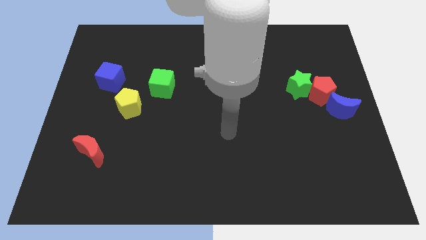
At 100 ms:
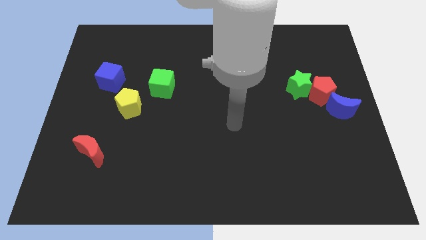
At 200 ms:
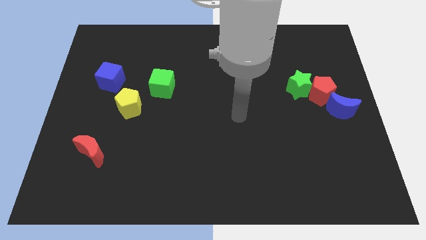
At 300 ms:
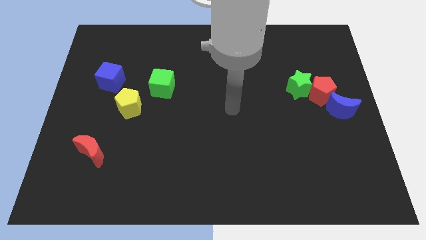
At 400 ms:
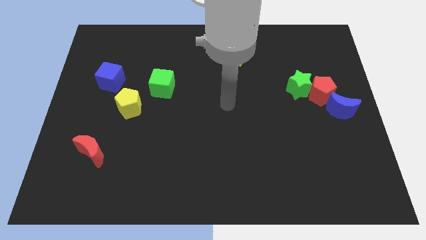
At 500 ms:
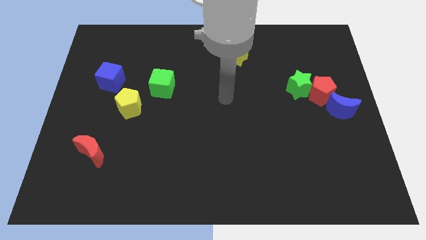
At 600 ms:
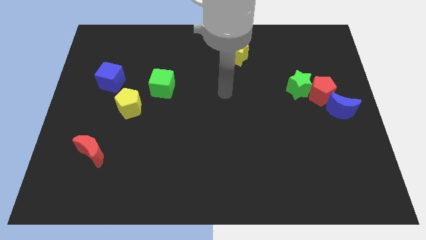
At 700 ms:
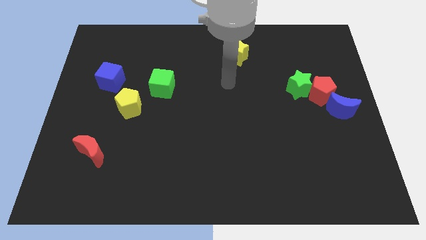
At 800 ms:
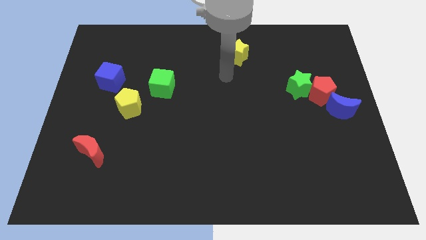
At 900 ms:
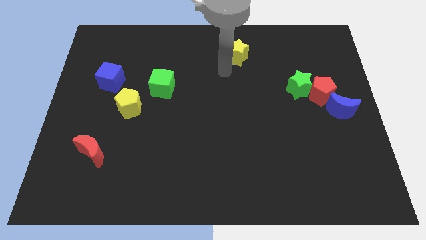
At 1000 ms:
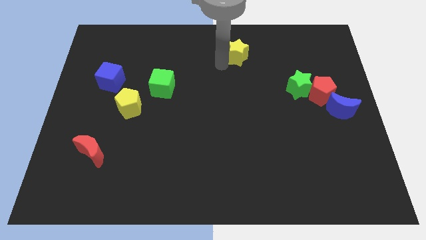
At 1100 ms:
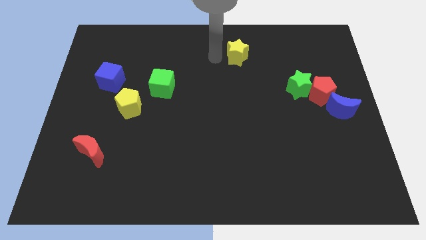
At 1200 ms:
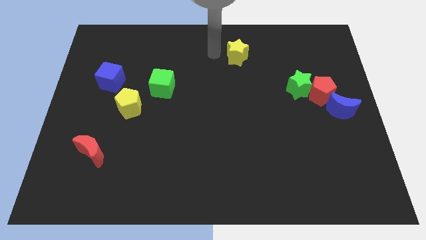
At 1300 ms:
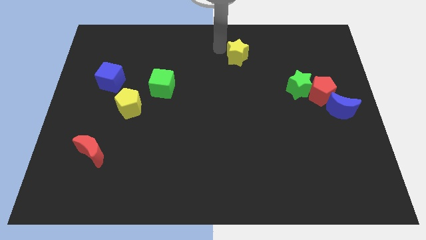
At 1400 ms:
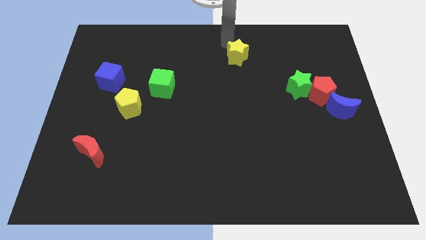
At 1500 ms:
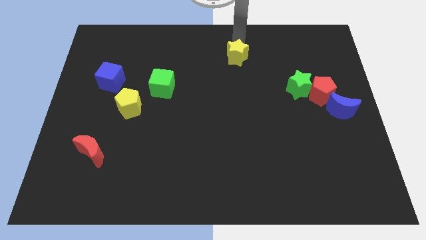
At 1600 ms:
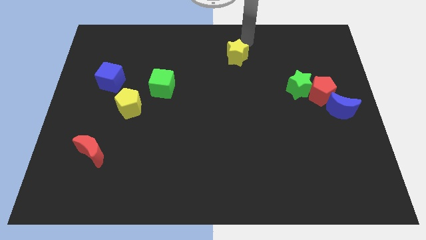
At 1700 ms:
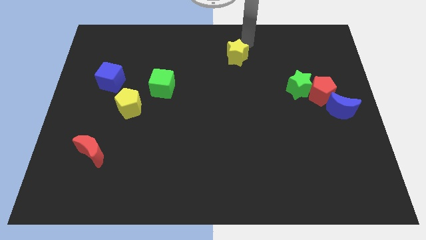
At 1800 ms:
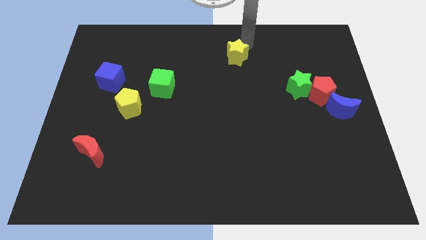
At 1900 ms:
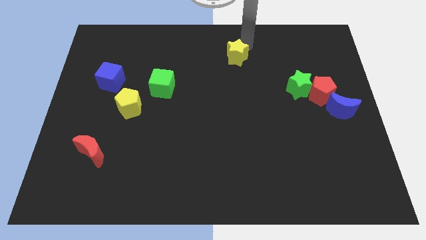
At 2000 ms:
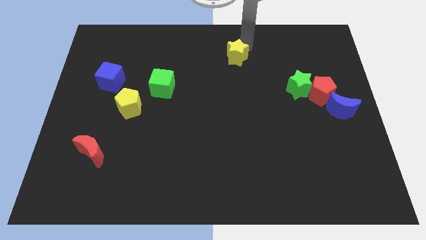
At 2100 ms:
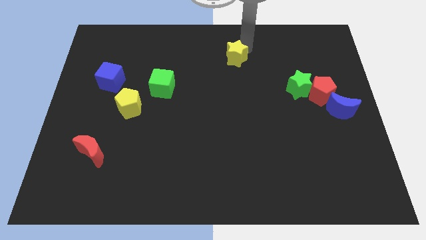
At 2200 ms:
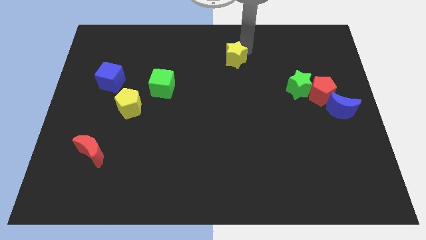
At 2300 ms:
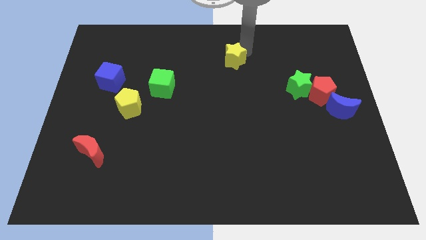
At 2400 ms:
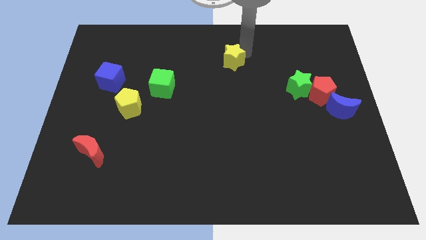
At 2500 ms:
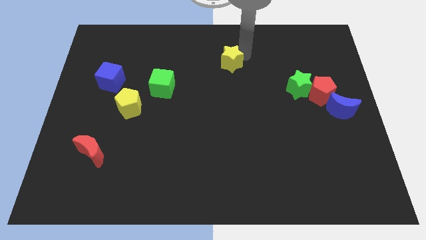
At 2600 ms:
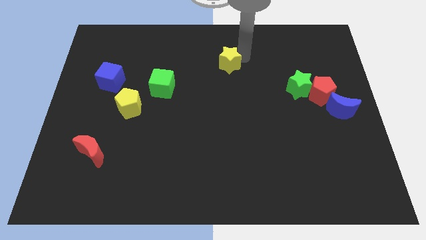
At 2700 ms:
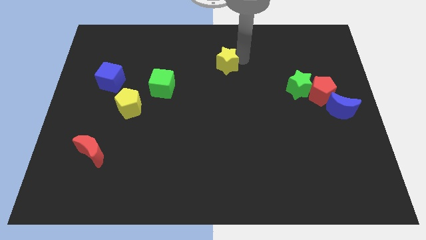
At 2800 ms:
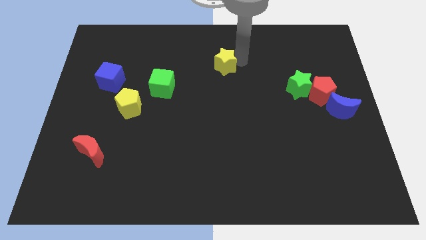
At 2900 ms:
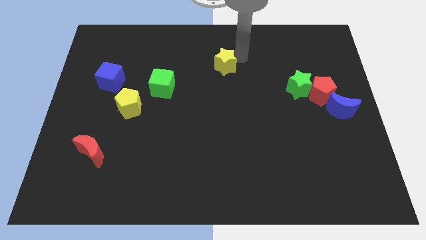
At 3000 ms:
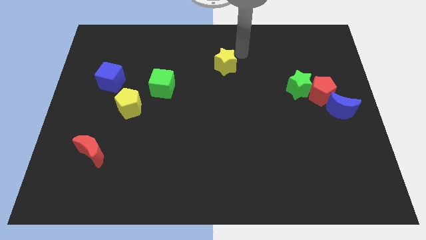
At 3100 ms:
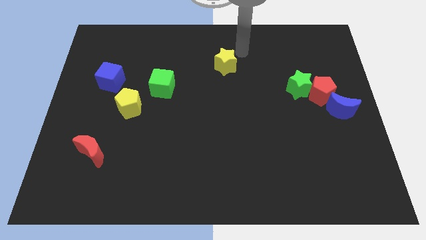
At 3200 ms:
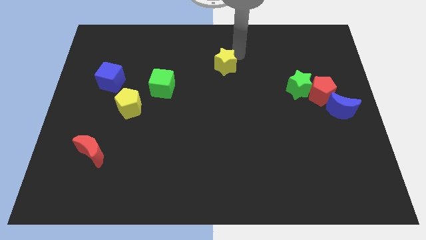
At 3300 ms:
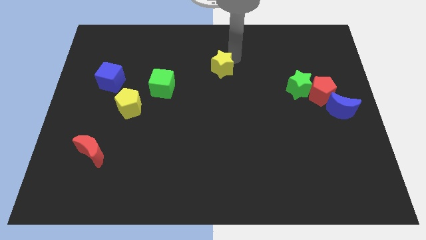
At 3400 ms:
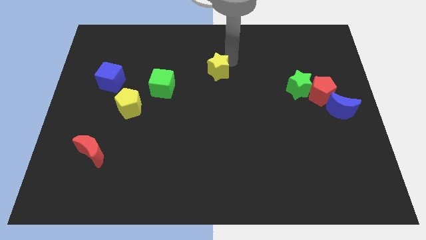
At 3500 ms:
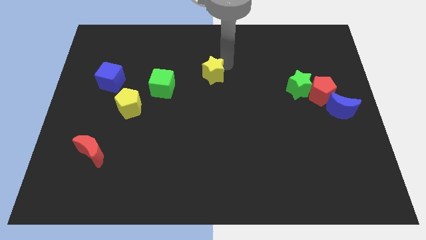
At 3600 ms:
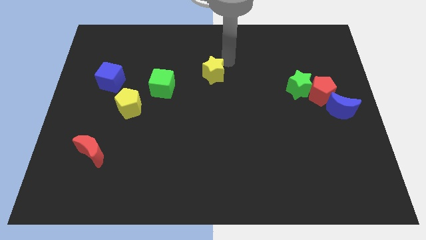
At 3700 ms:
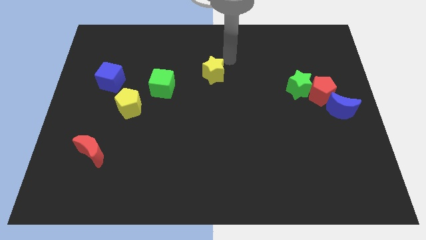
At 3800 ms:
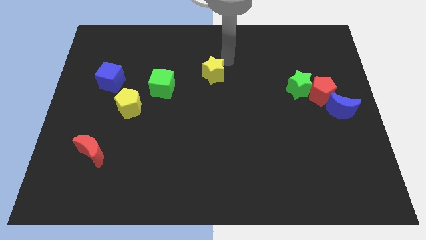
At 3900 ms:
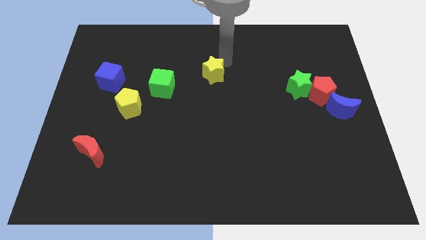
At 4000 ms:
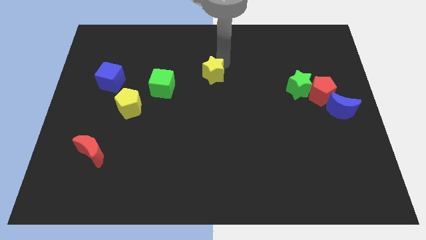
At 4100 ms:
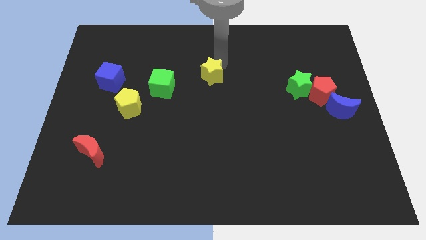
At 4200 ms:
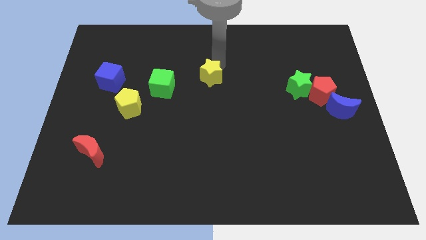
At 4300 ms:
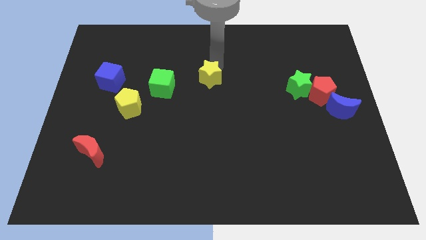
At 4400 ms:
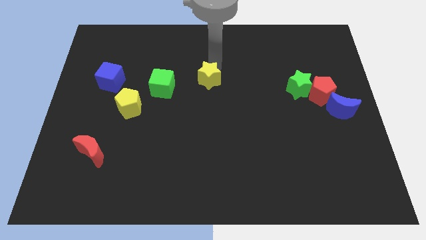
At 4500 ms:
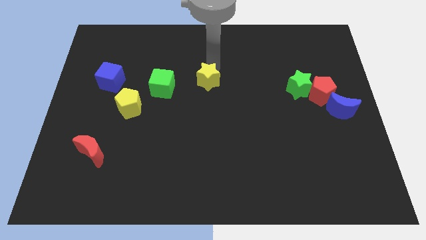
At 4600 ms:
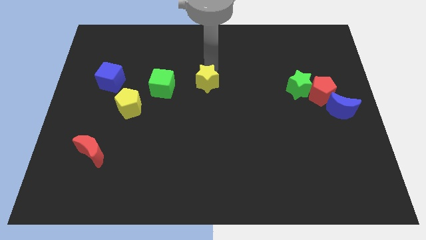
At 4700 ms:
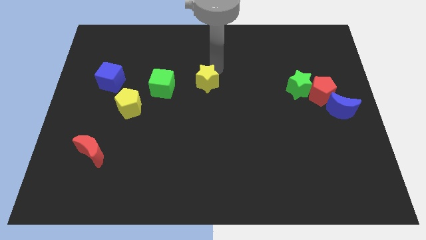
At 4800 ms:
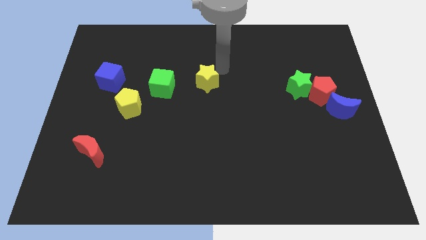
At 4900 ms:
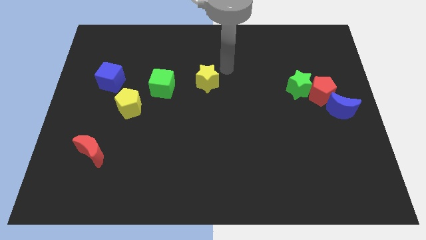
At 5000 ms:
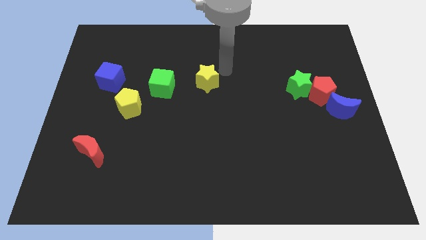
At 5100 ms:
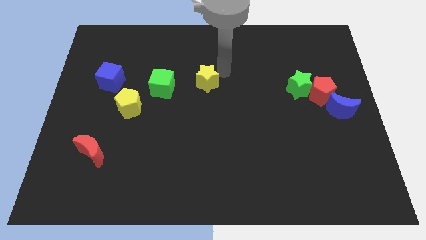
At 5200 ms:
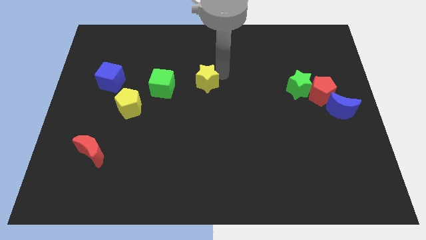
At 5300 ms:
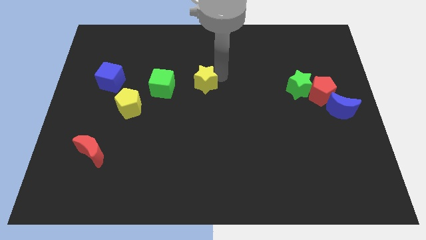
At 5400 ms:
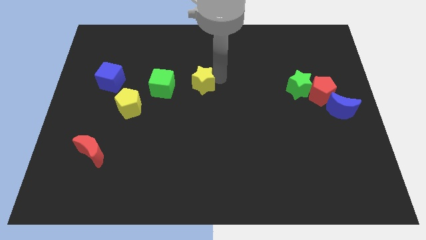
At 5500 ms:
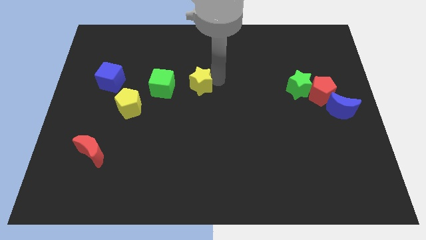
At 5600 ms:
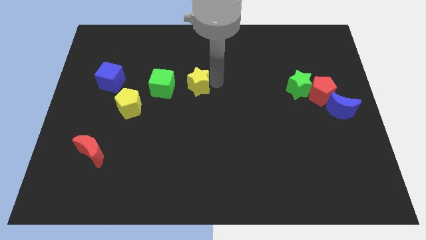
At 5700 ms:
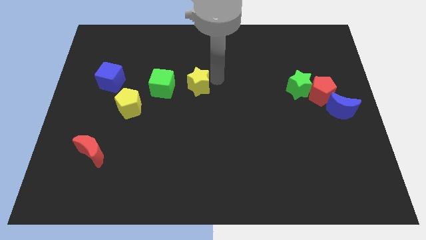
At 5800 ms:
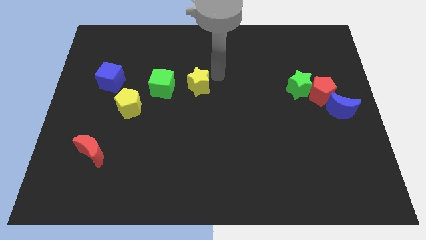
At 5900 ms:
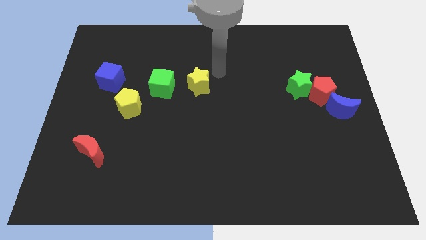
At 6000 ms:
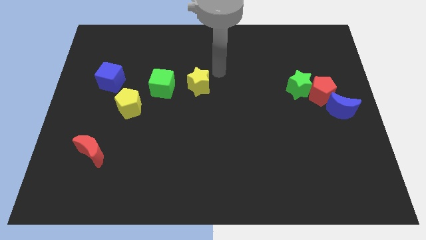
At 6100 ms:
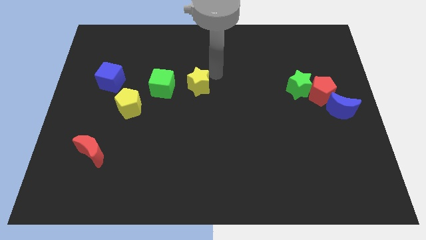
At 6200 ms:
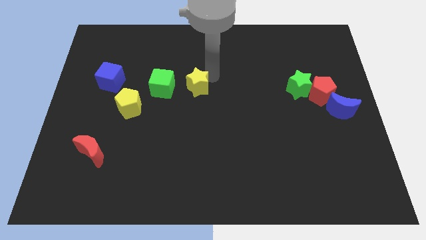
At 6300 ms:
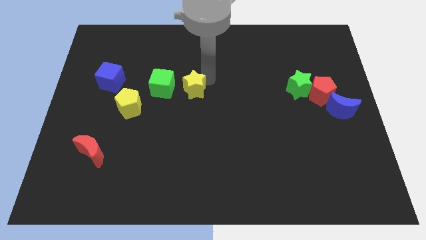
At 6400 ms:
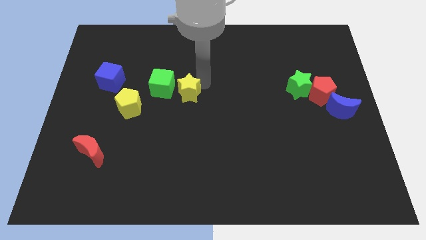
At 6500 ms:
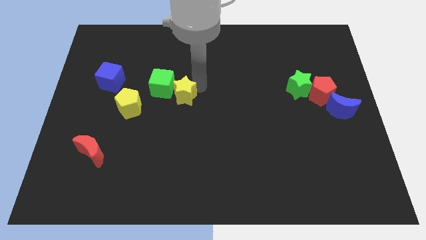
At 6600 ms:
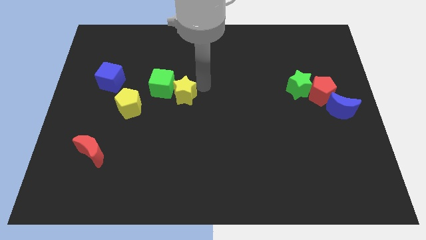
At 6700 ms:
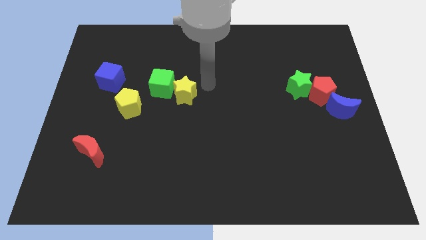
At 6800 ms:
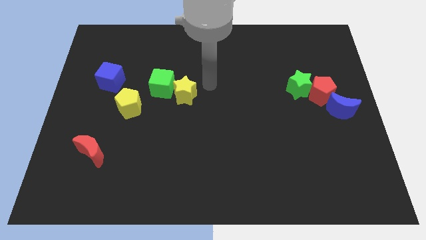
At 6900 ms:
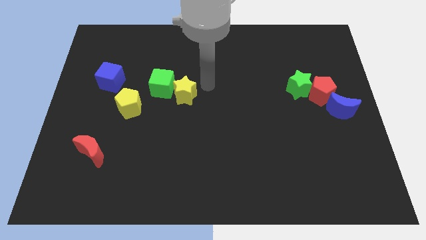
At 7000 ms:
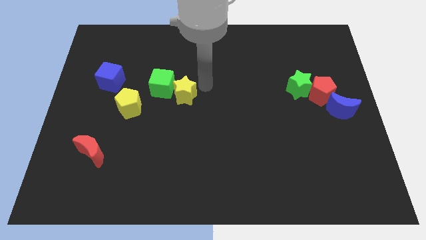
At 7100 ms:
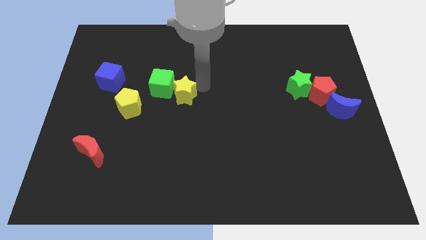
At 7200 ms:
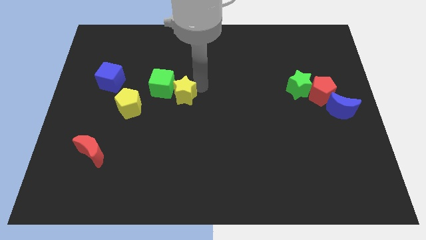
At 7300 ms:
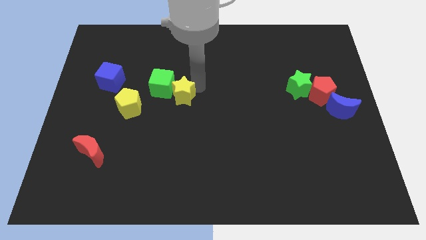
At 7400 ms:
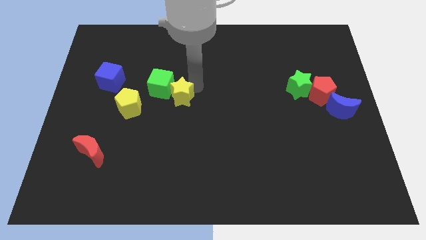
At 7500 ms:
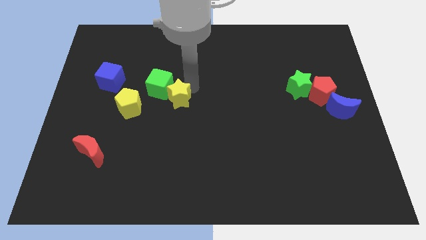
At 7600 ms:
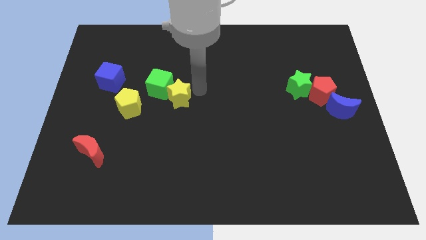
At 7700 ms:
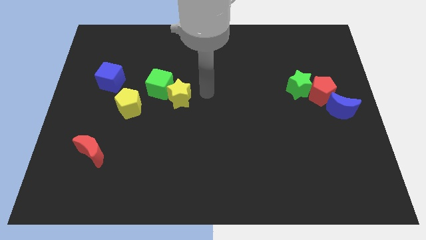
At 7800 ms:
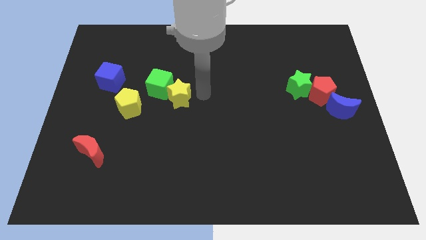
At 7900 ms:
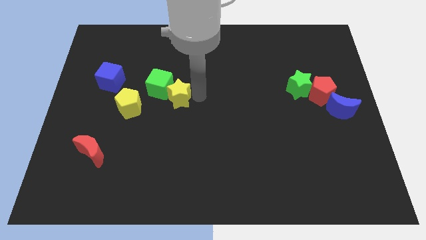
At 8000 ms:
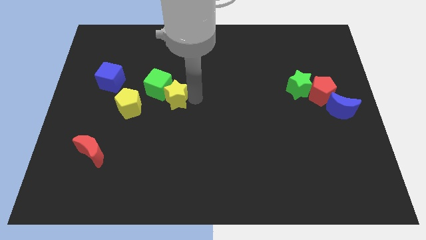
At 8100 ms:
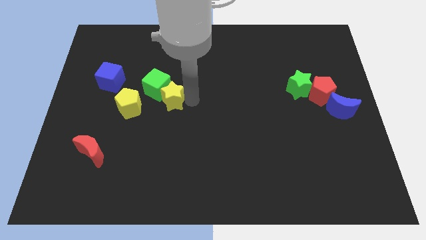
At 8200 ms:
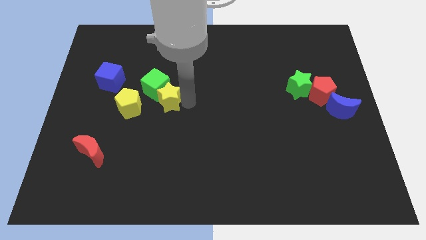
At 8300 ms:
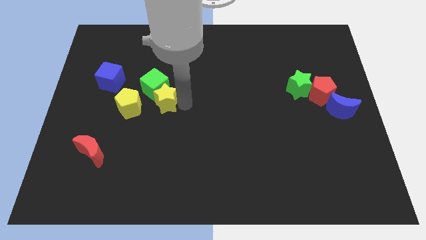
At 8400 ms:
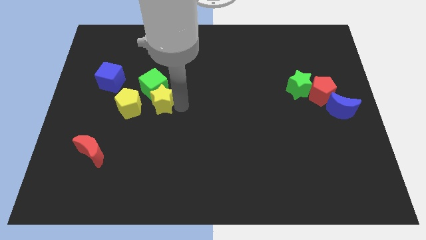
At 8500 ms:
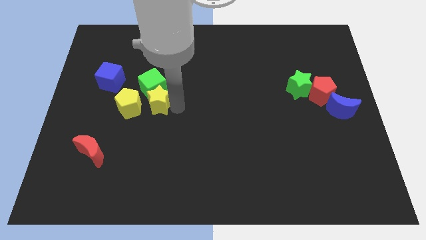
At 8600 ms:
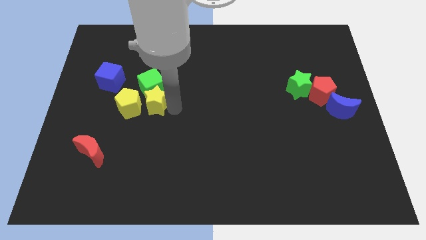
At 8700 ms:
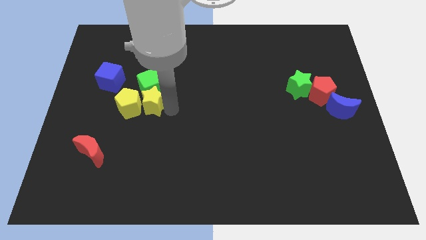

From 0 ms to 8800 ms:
put the yellow star towards the yellow pentagon
